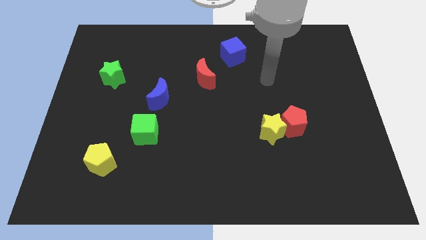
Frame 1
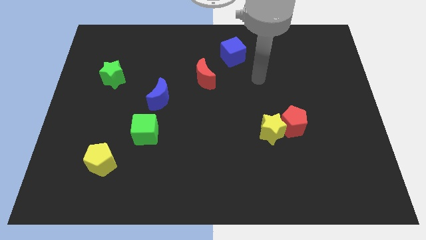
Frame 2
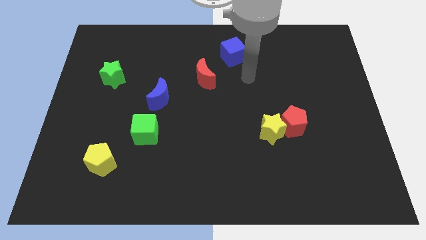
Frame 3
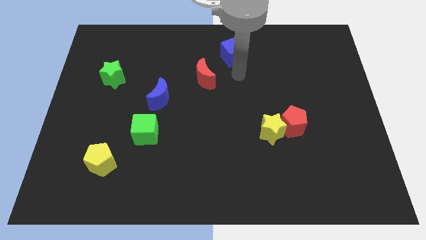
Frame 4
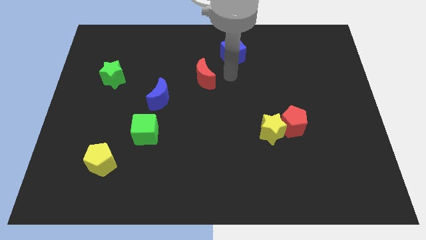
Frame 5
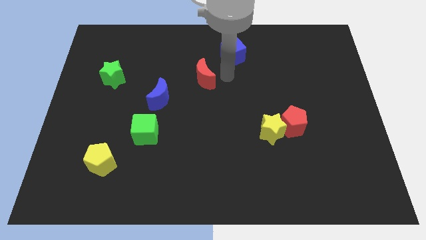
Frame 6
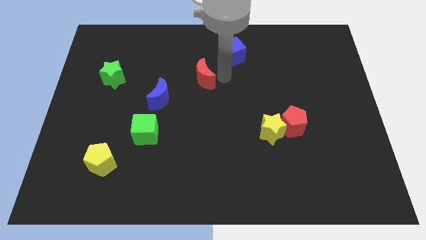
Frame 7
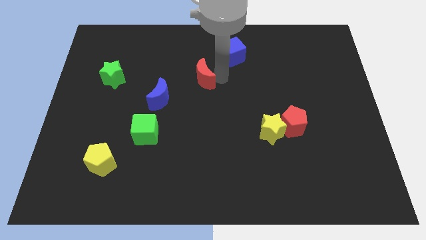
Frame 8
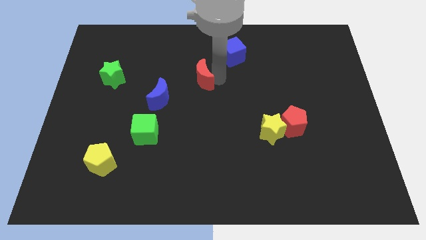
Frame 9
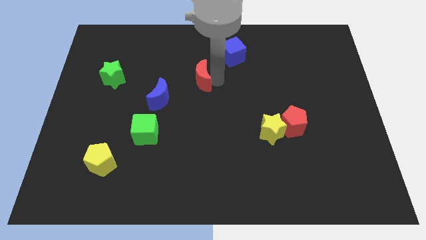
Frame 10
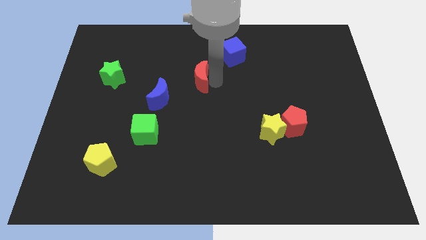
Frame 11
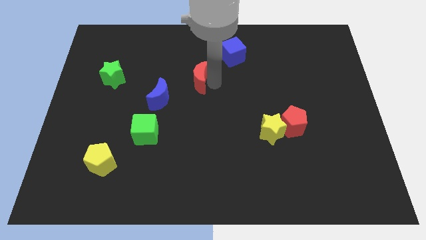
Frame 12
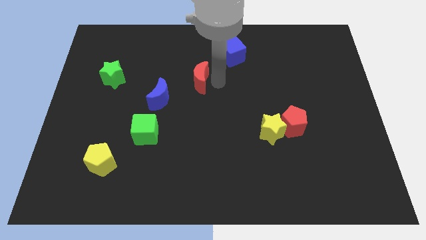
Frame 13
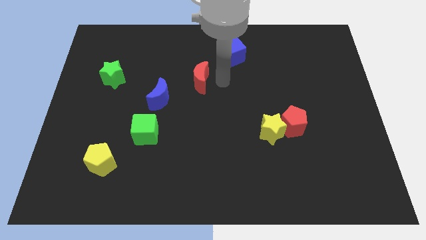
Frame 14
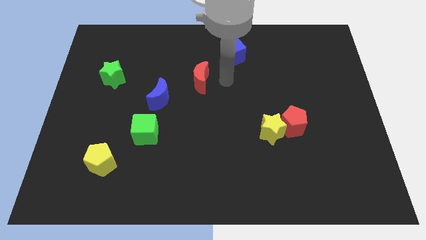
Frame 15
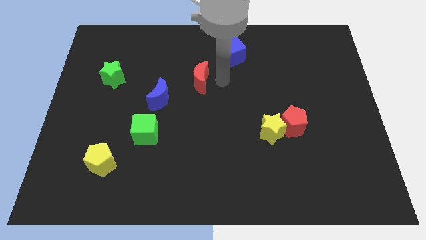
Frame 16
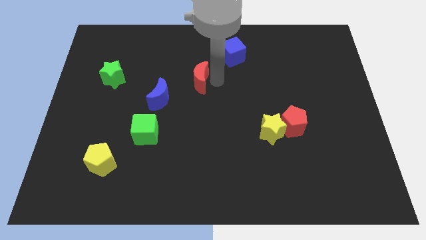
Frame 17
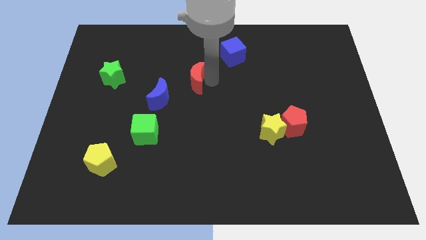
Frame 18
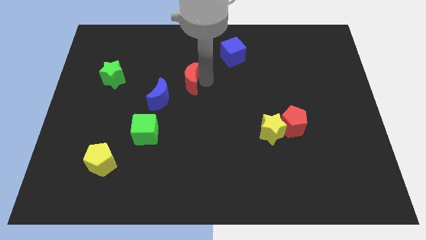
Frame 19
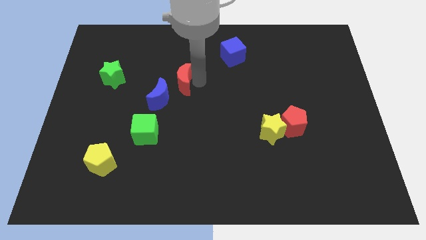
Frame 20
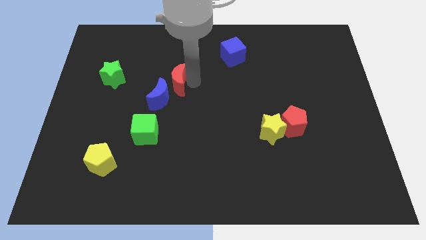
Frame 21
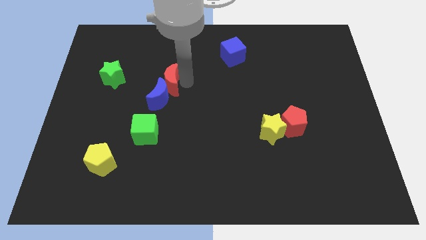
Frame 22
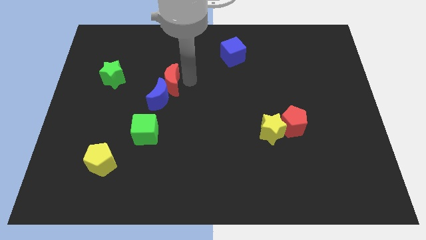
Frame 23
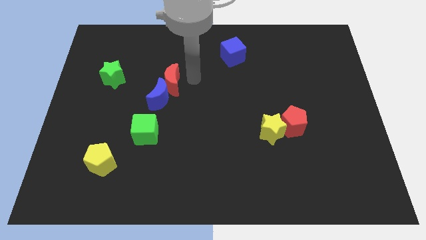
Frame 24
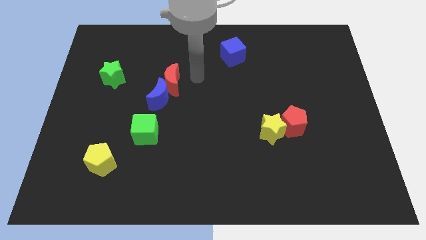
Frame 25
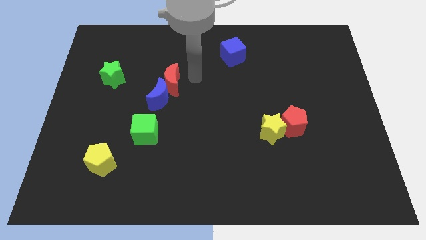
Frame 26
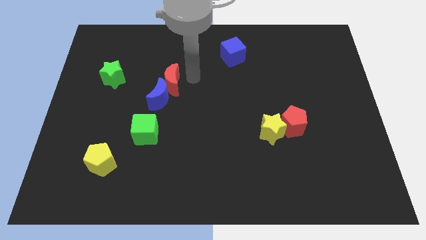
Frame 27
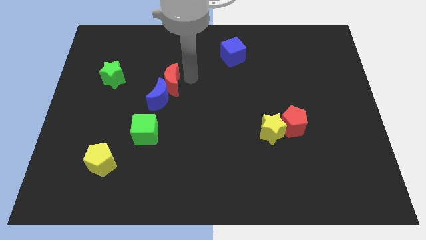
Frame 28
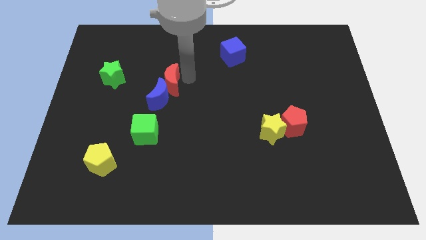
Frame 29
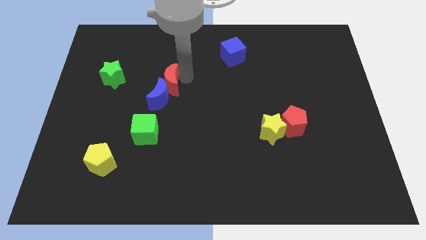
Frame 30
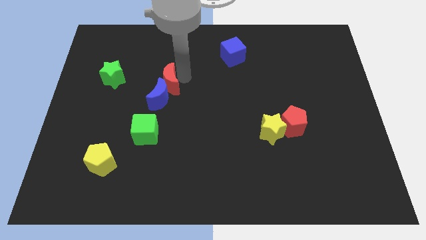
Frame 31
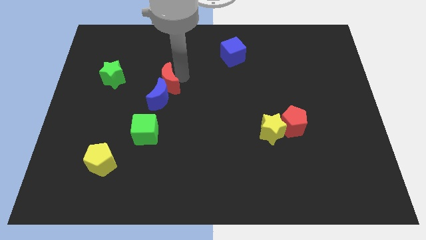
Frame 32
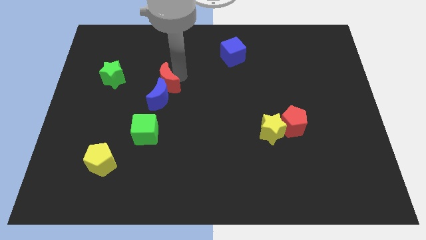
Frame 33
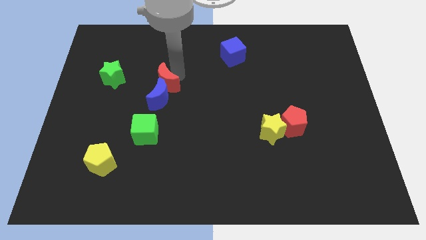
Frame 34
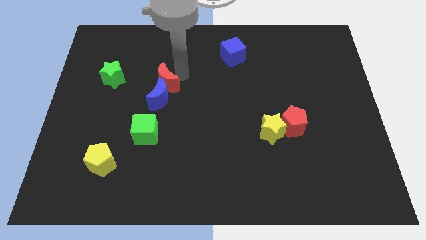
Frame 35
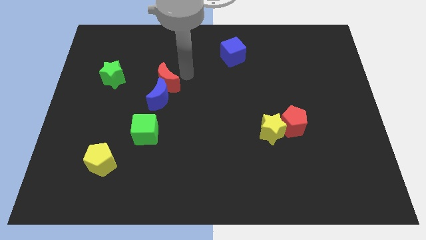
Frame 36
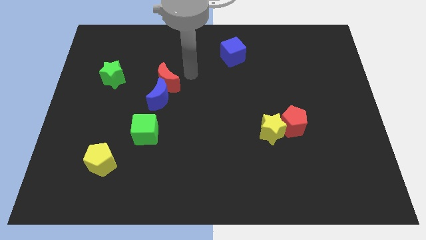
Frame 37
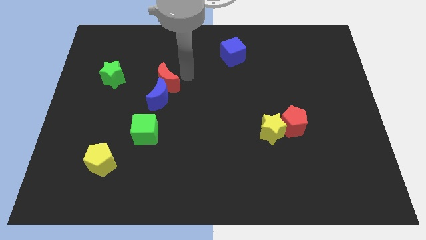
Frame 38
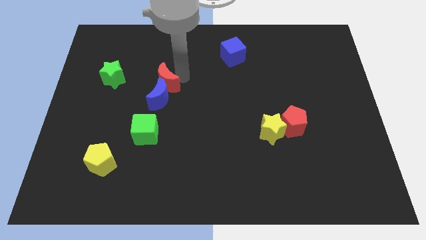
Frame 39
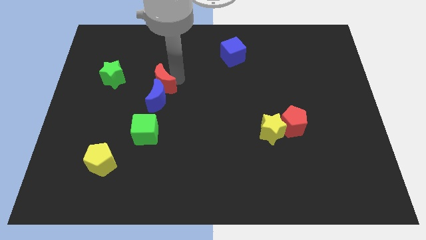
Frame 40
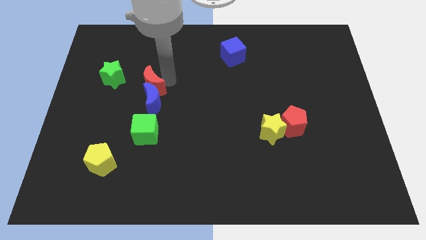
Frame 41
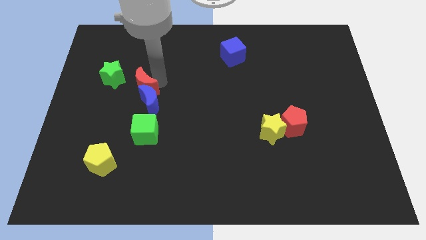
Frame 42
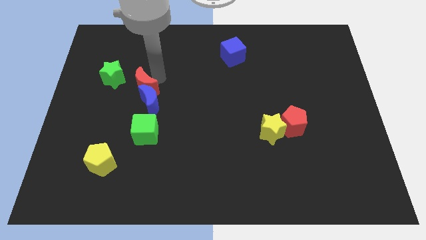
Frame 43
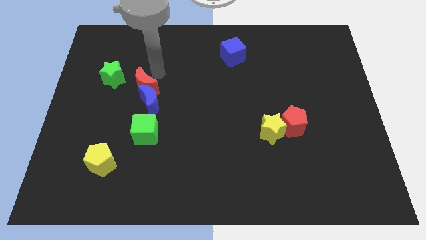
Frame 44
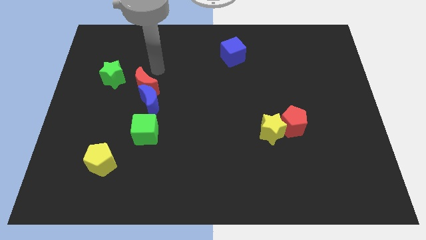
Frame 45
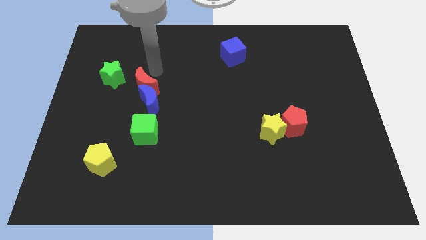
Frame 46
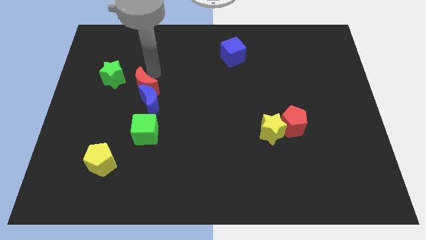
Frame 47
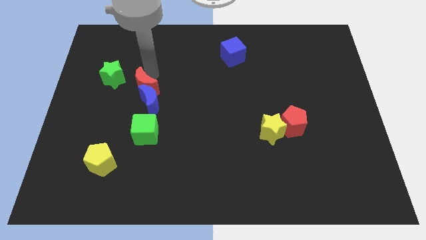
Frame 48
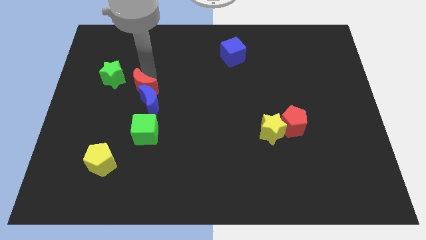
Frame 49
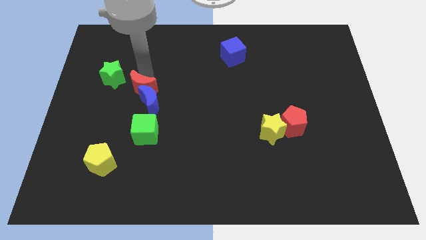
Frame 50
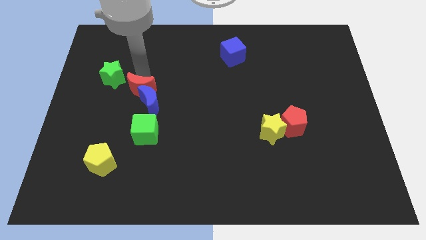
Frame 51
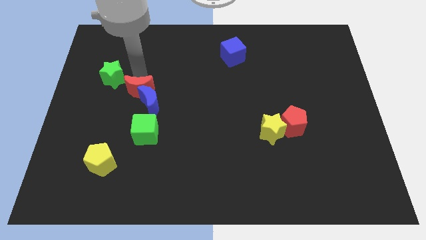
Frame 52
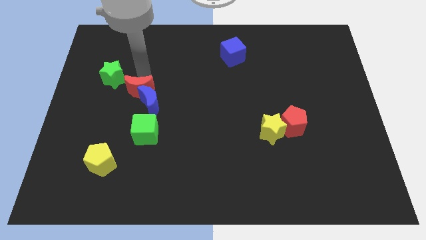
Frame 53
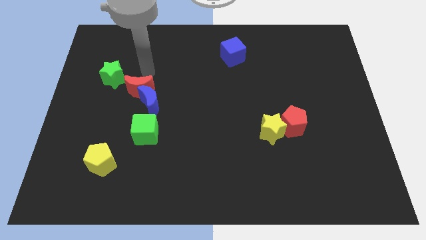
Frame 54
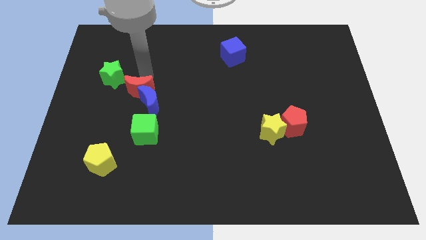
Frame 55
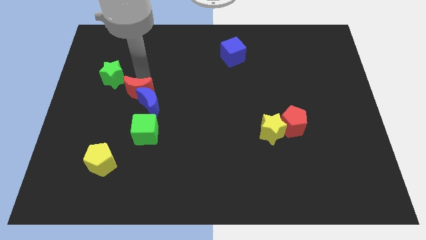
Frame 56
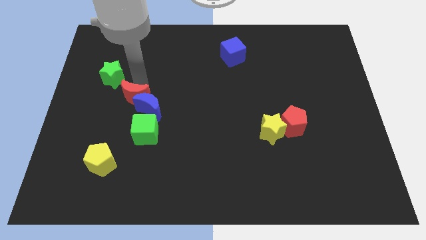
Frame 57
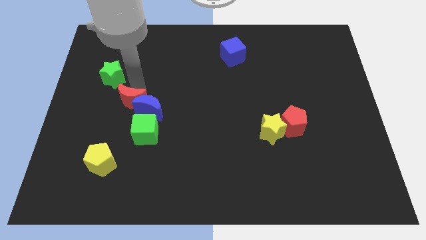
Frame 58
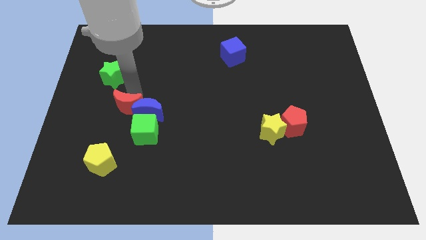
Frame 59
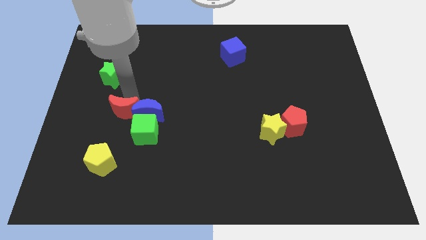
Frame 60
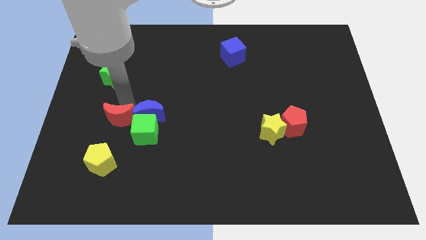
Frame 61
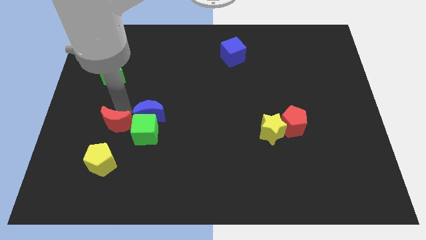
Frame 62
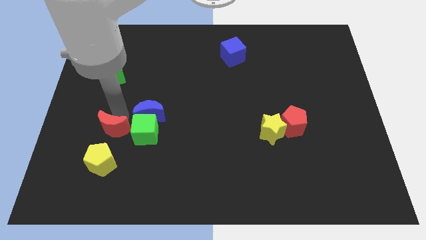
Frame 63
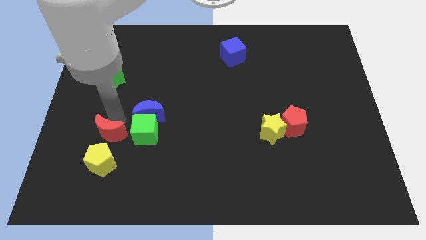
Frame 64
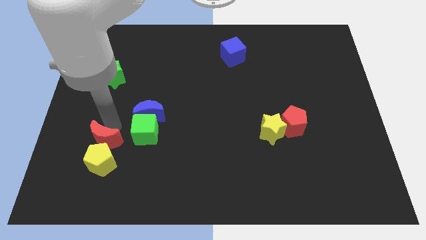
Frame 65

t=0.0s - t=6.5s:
put the red moon to the yellow pentagon
